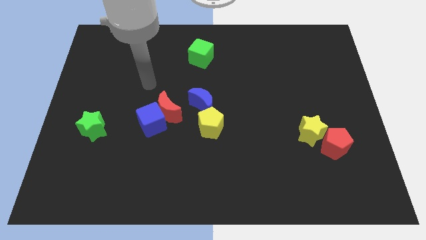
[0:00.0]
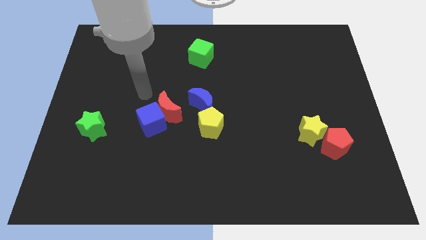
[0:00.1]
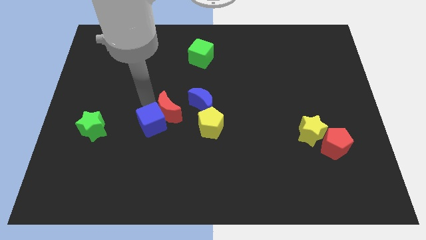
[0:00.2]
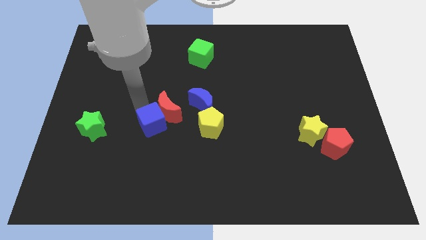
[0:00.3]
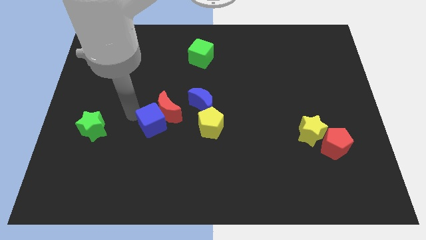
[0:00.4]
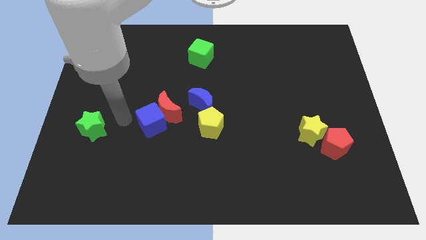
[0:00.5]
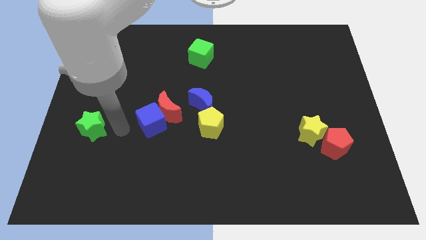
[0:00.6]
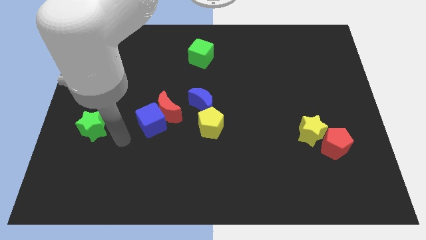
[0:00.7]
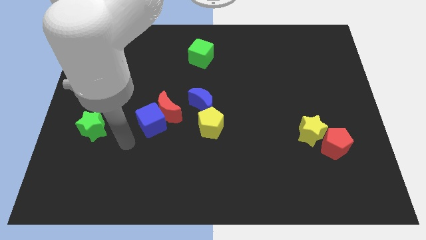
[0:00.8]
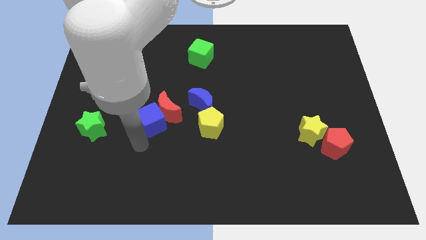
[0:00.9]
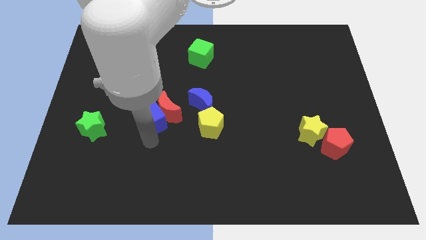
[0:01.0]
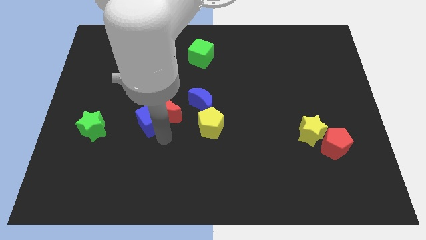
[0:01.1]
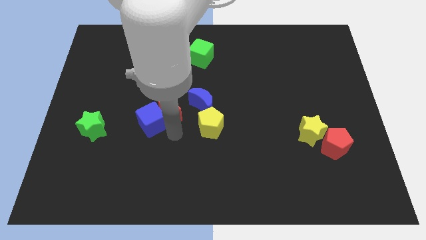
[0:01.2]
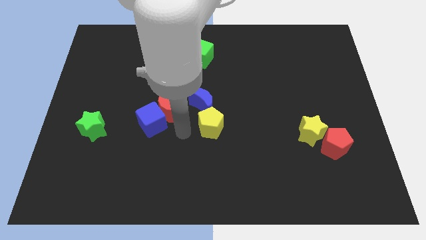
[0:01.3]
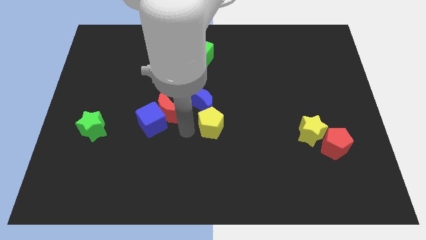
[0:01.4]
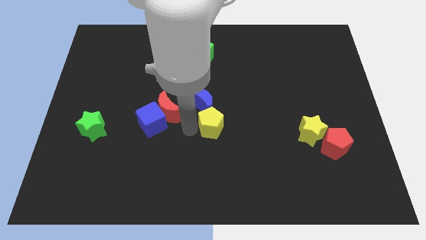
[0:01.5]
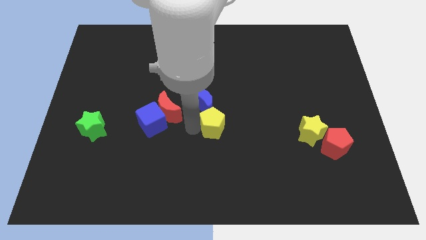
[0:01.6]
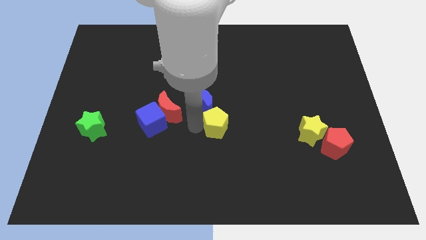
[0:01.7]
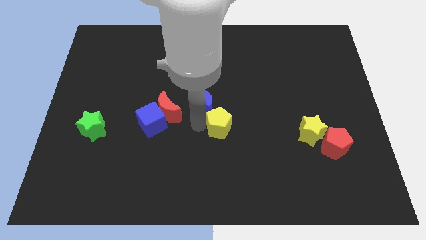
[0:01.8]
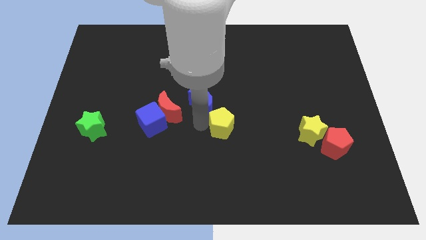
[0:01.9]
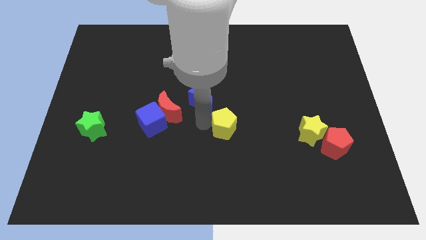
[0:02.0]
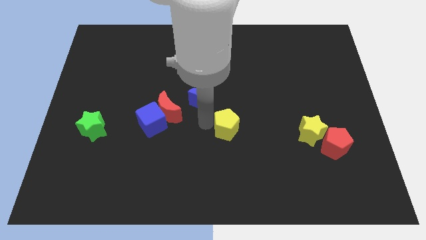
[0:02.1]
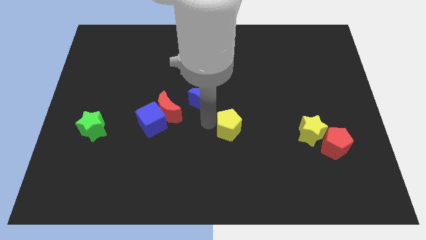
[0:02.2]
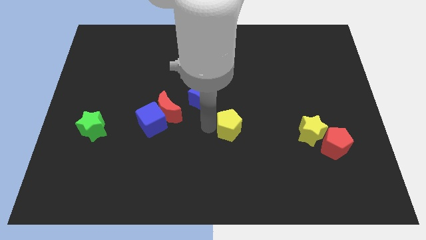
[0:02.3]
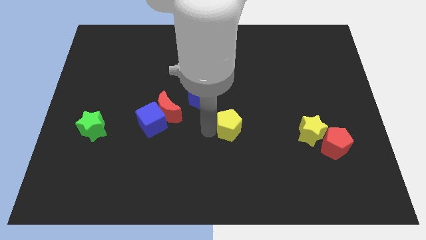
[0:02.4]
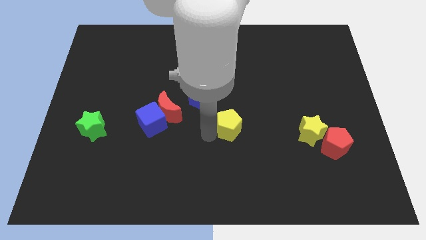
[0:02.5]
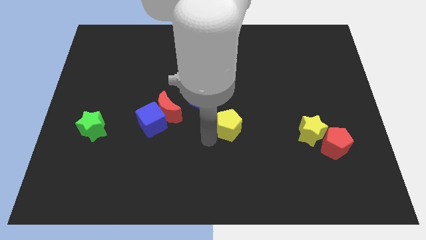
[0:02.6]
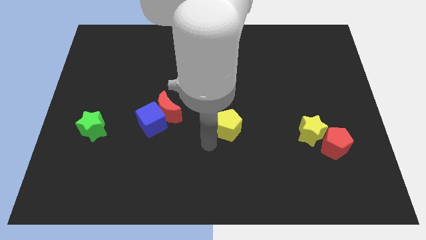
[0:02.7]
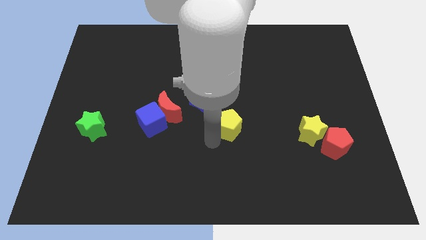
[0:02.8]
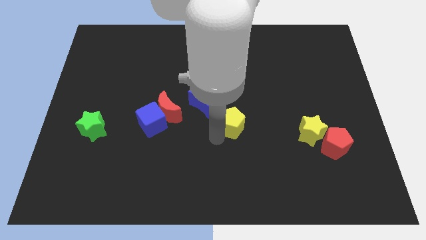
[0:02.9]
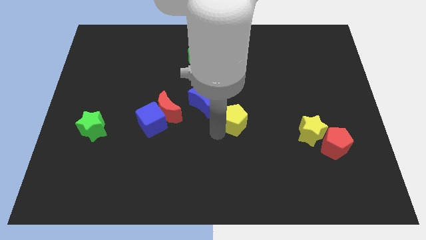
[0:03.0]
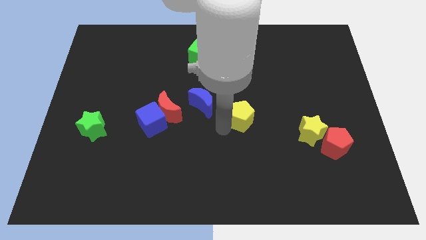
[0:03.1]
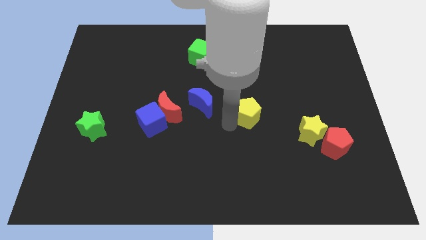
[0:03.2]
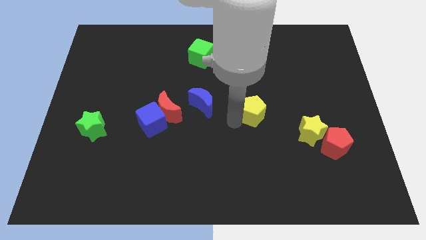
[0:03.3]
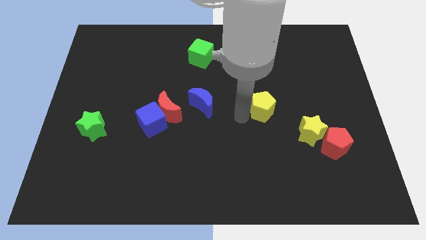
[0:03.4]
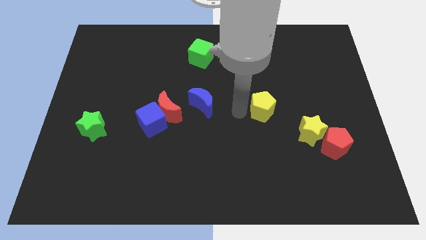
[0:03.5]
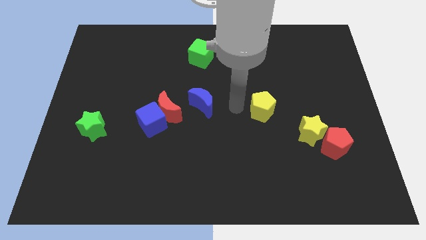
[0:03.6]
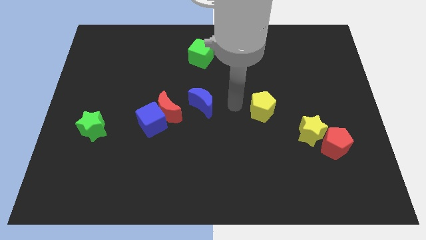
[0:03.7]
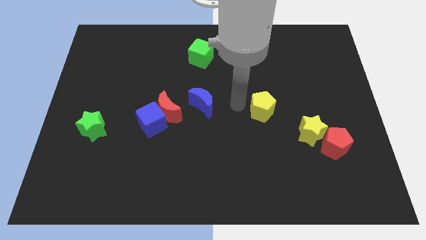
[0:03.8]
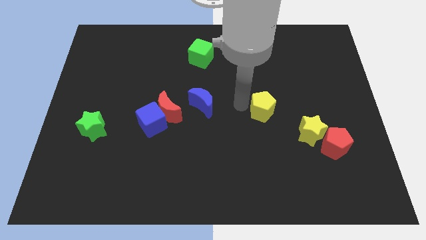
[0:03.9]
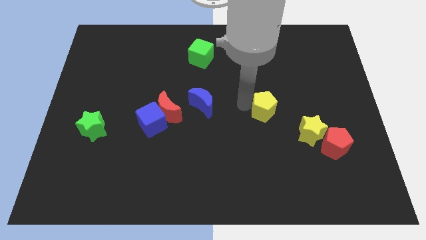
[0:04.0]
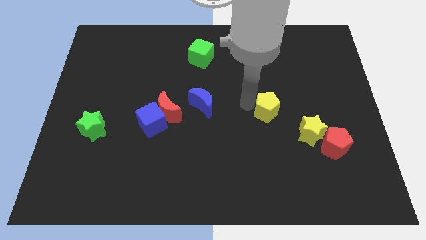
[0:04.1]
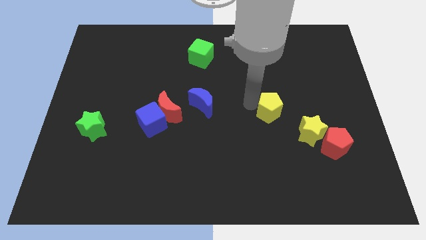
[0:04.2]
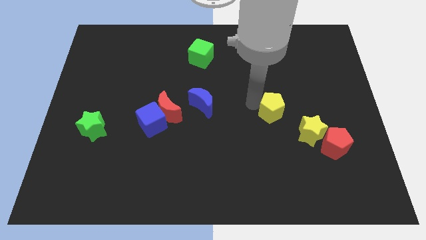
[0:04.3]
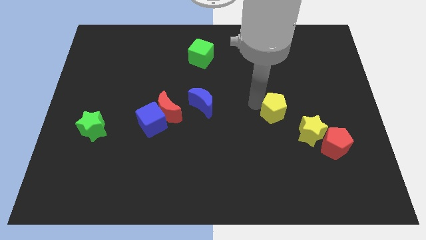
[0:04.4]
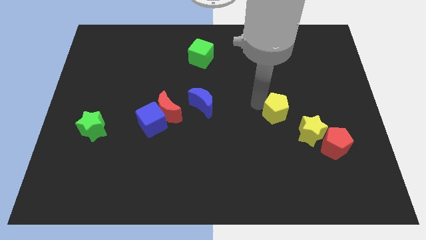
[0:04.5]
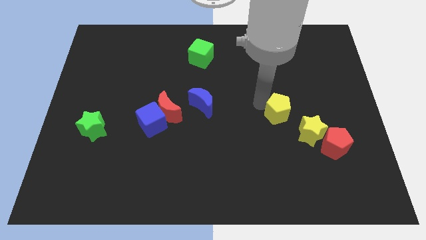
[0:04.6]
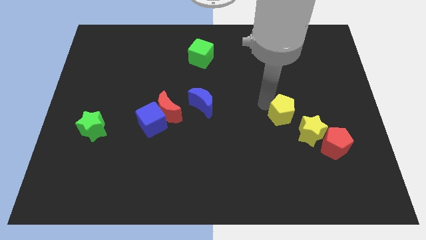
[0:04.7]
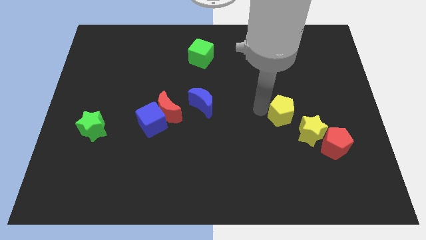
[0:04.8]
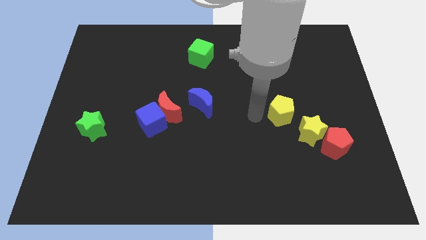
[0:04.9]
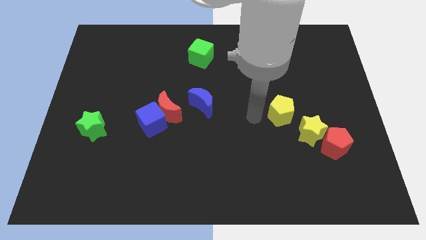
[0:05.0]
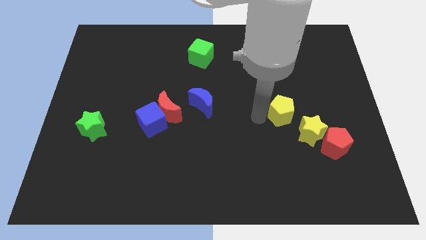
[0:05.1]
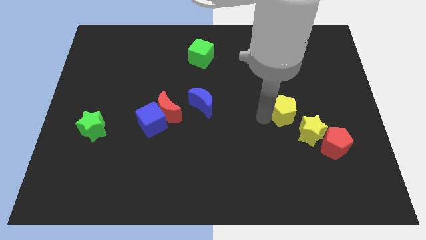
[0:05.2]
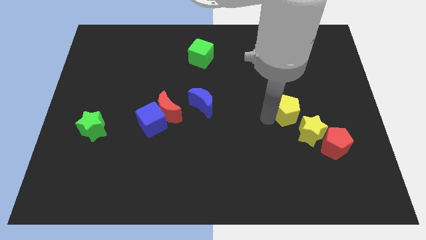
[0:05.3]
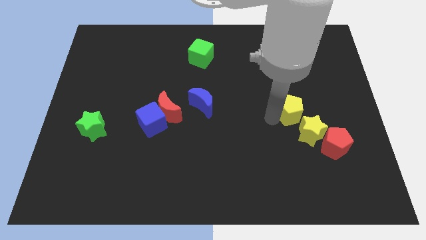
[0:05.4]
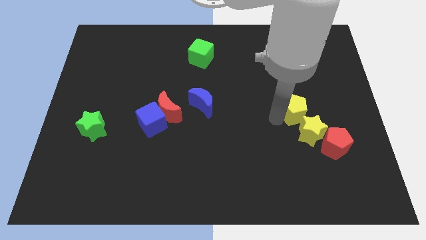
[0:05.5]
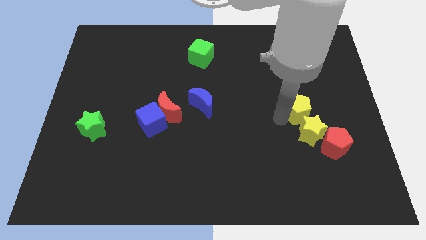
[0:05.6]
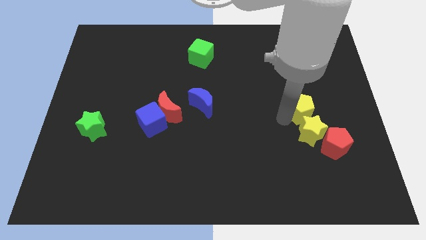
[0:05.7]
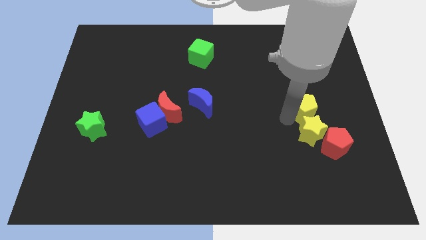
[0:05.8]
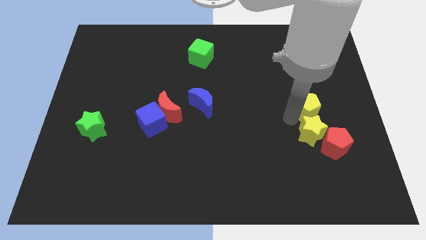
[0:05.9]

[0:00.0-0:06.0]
push the yellow pentagon to the top of the red pentagon
